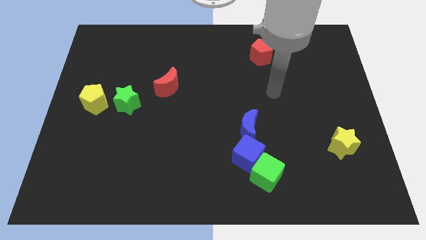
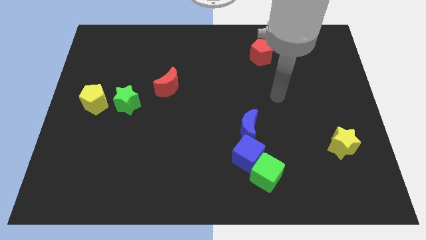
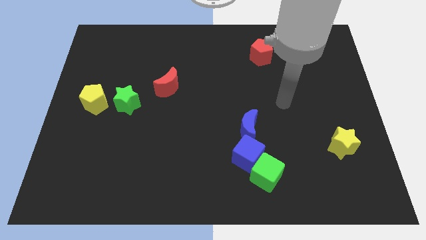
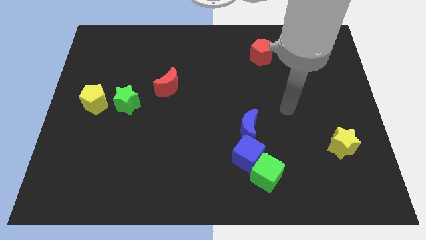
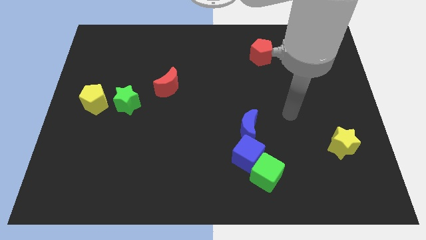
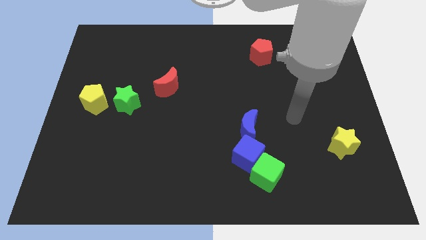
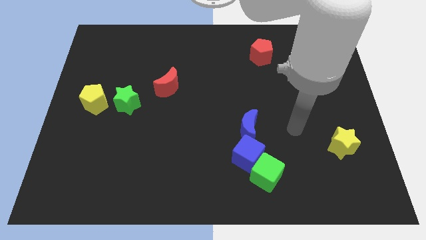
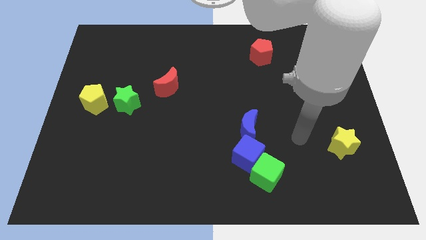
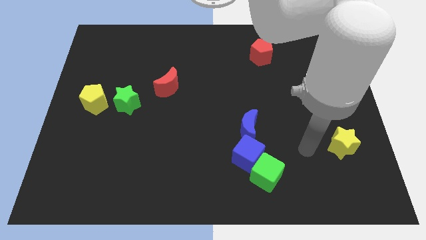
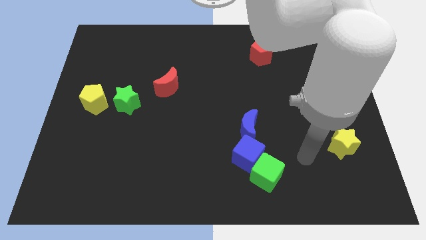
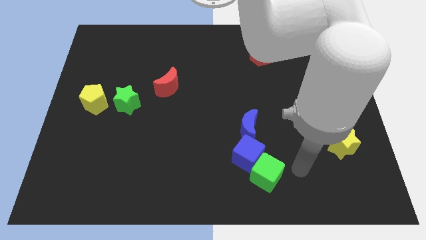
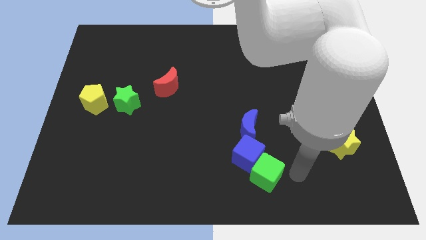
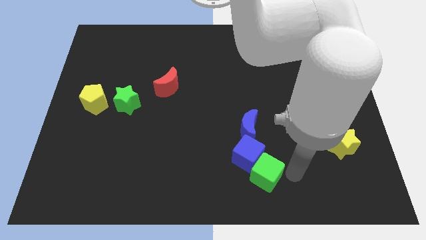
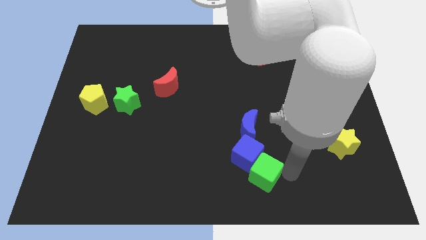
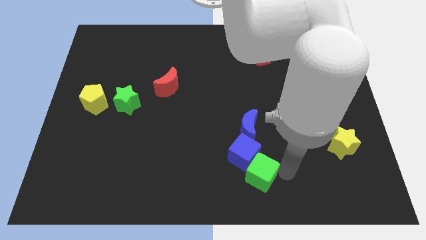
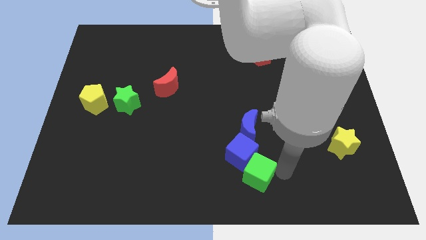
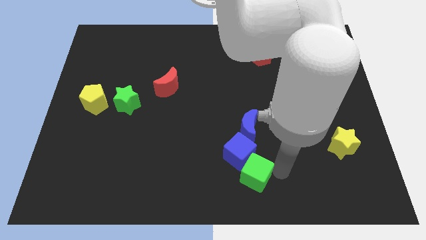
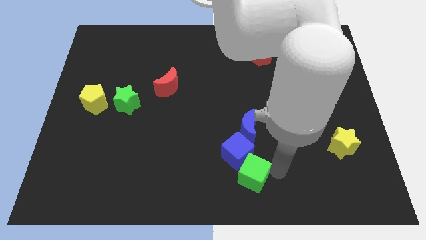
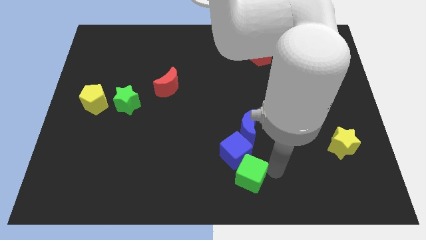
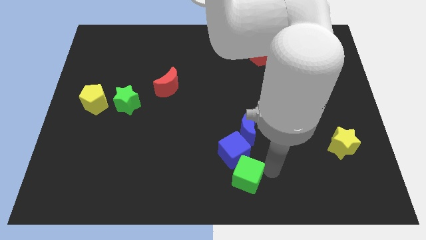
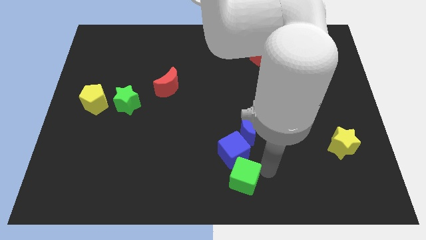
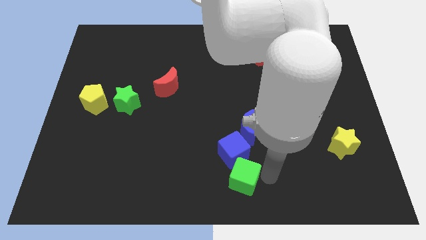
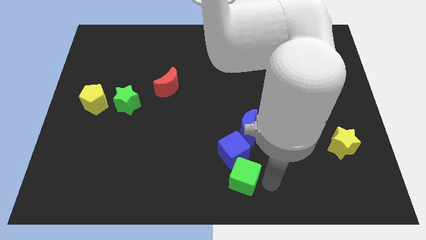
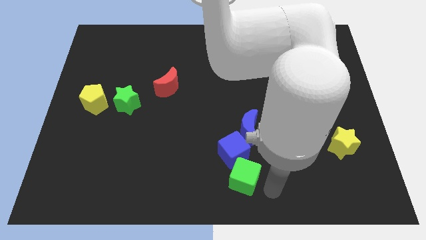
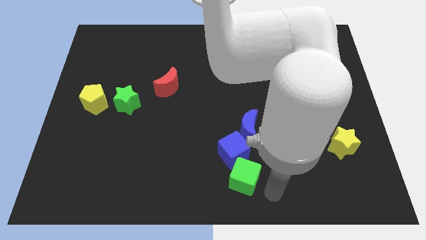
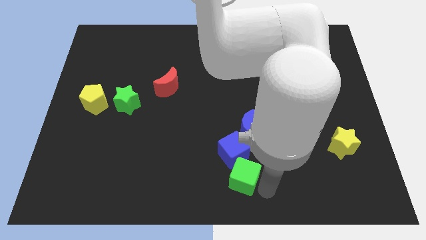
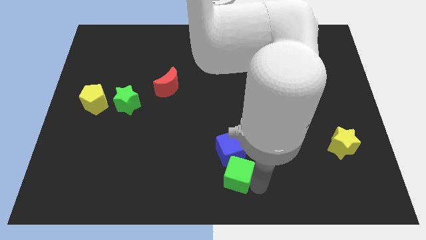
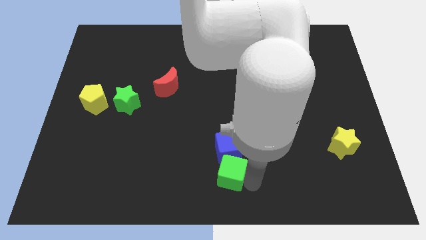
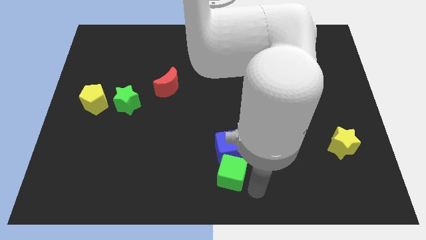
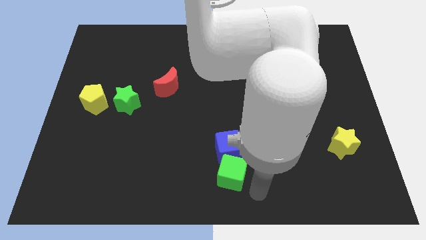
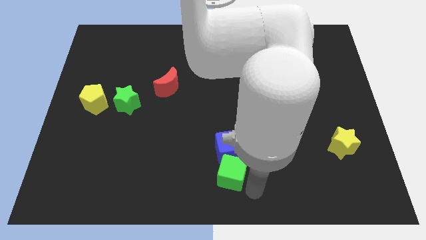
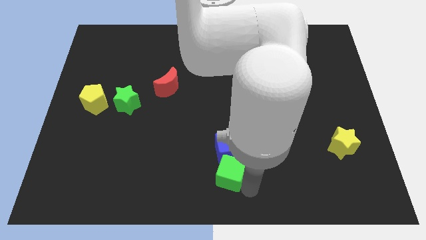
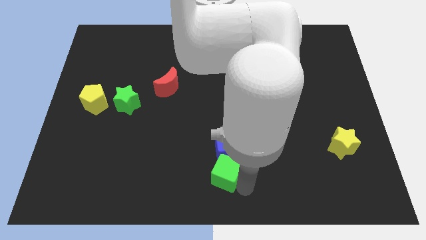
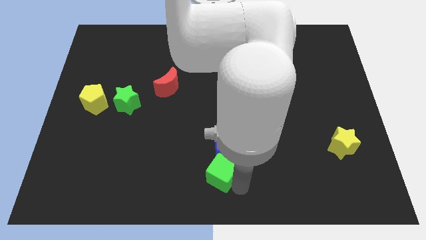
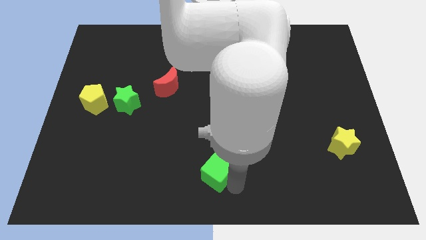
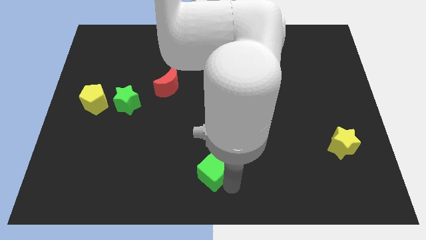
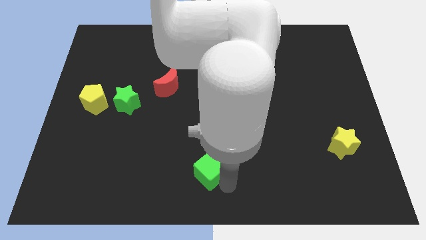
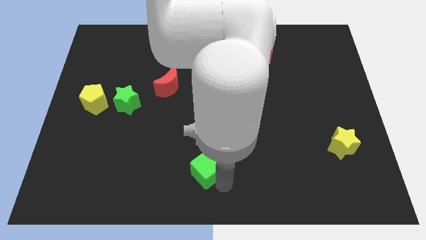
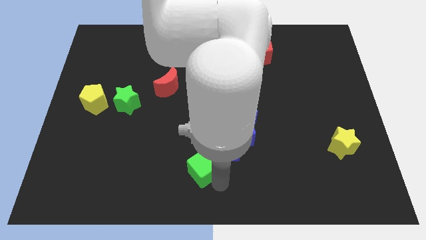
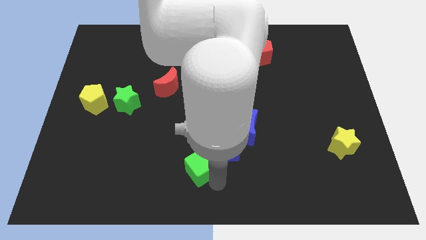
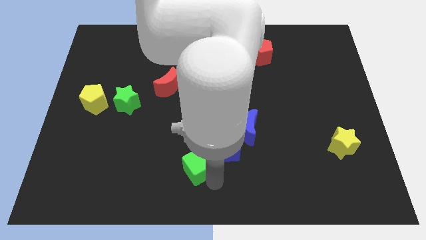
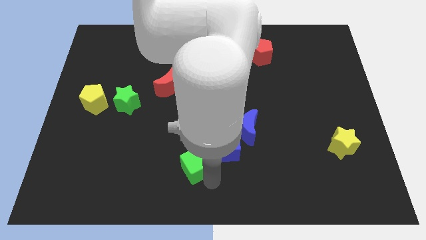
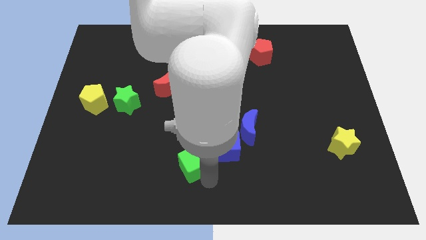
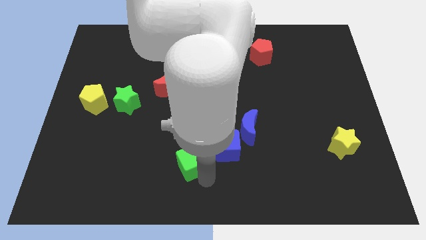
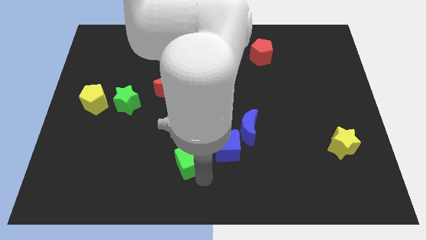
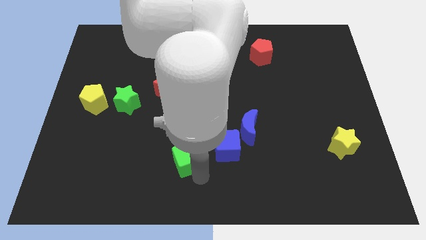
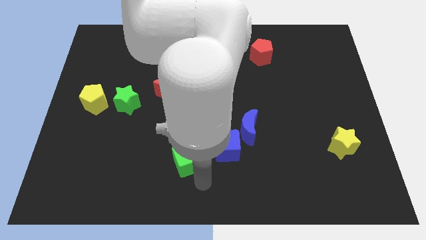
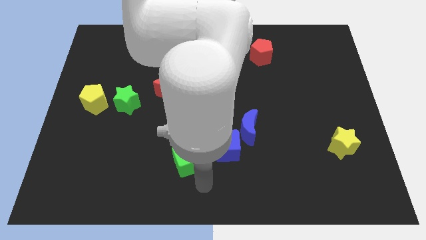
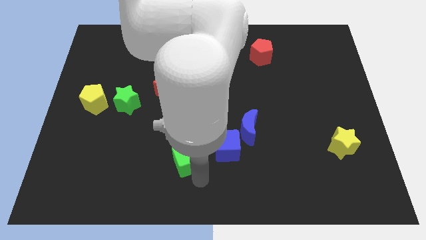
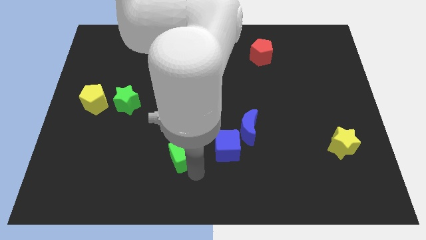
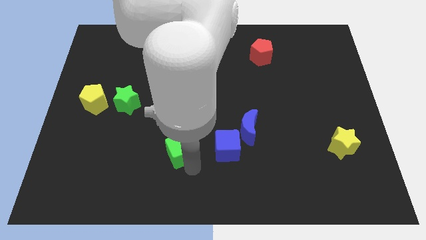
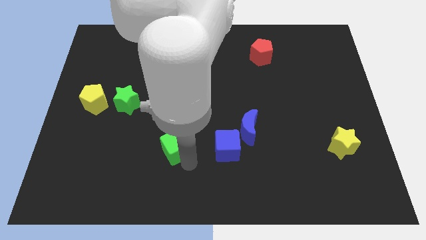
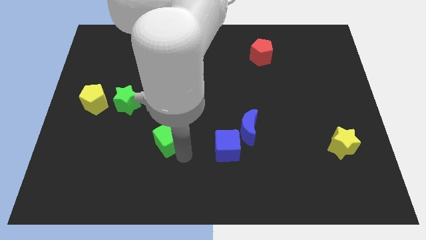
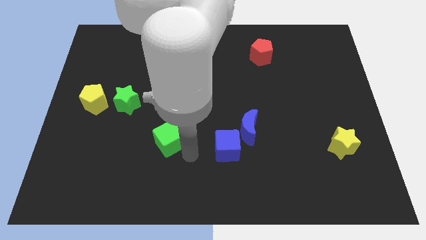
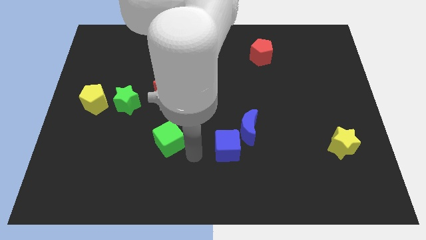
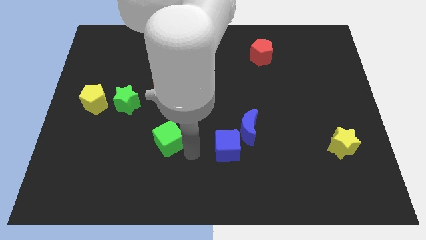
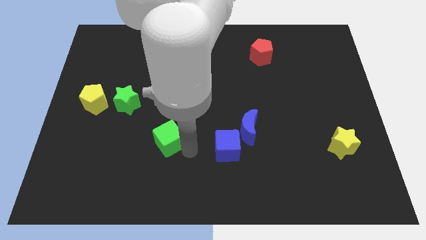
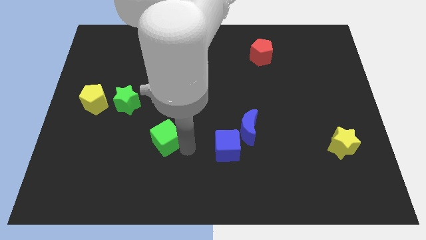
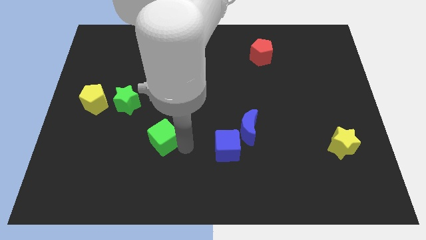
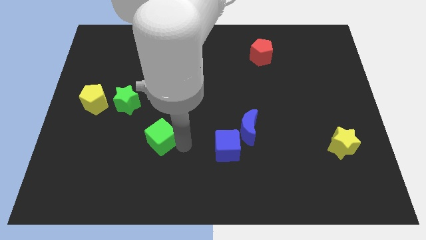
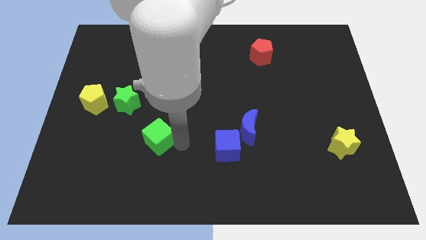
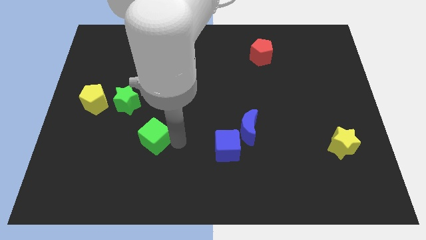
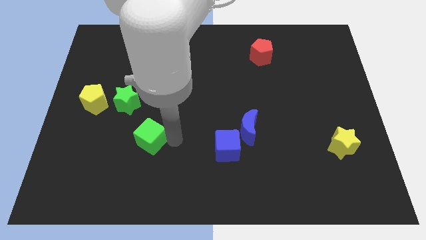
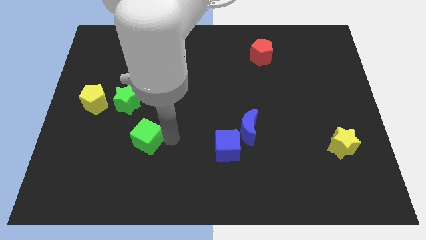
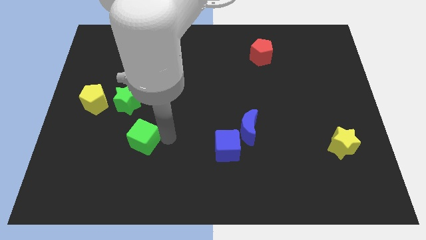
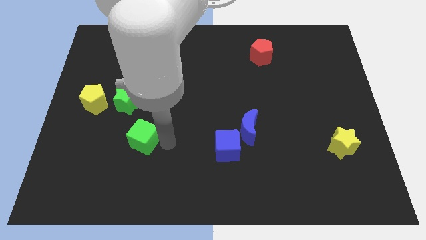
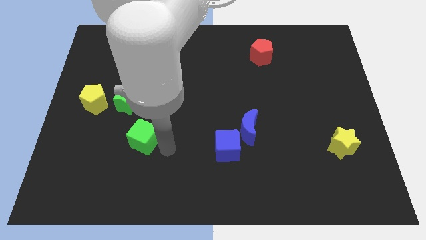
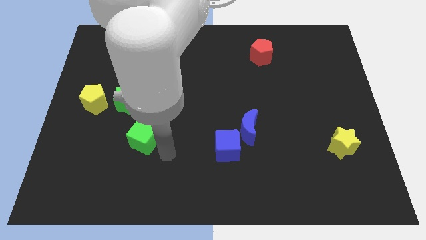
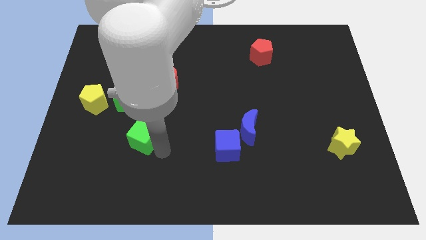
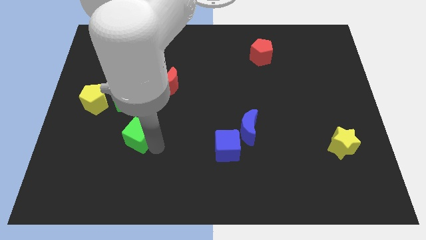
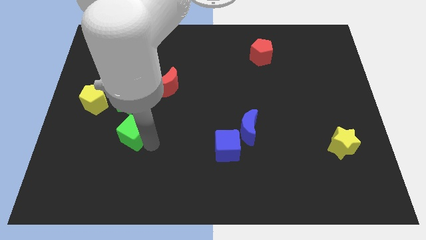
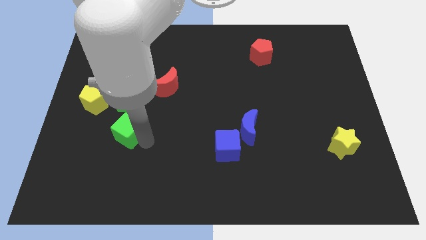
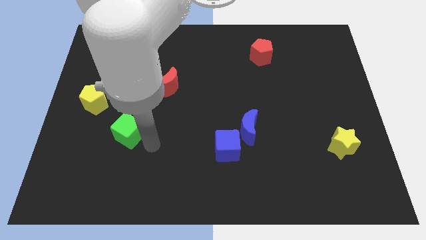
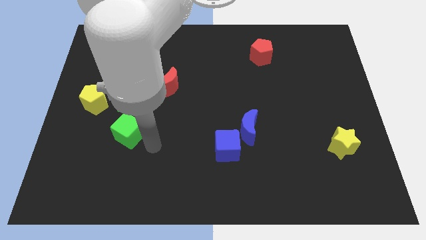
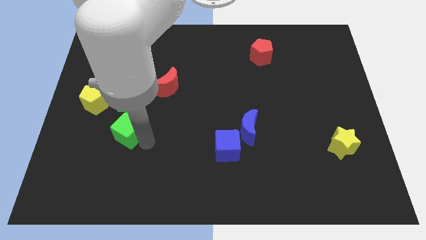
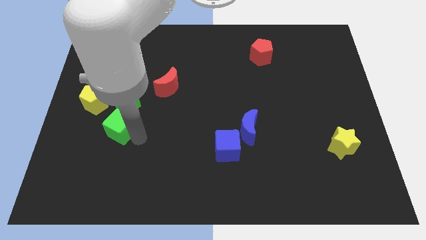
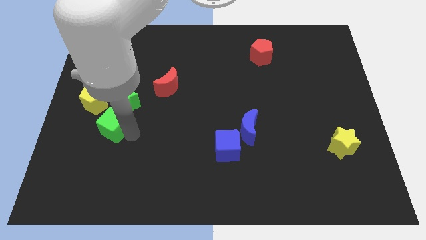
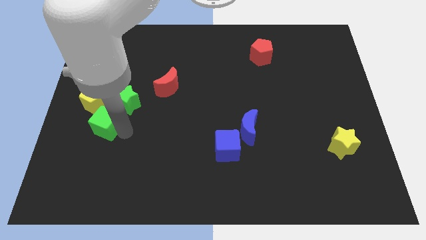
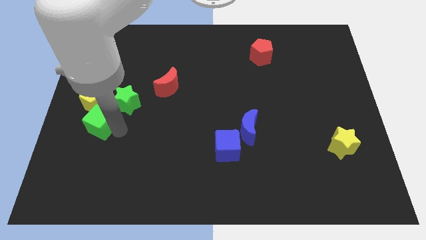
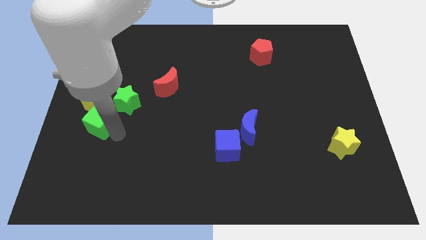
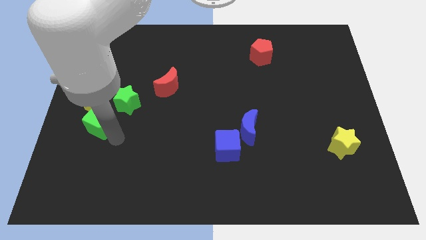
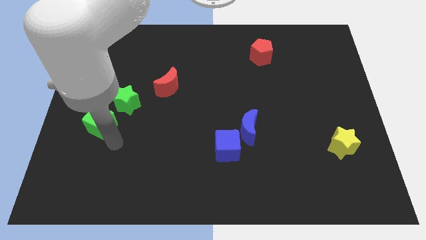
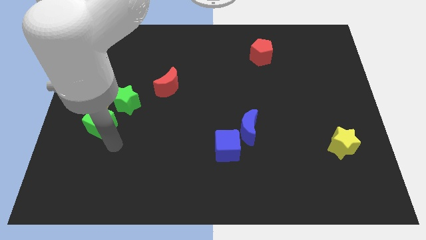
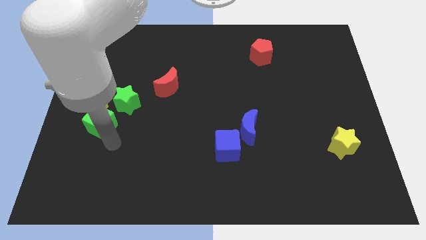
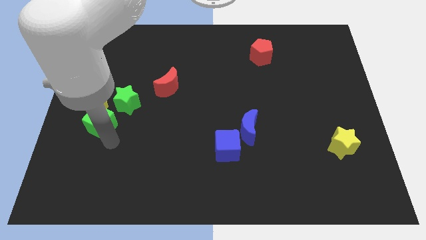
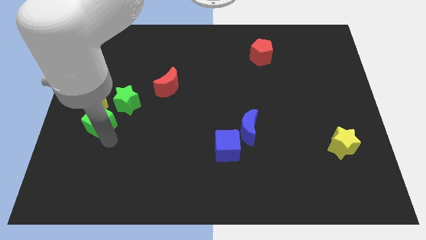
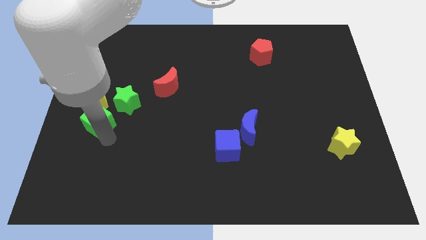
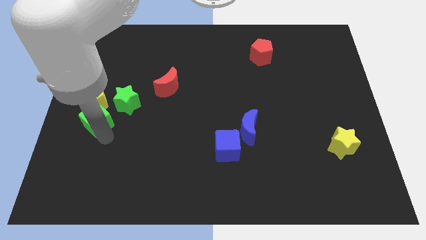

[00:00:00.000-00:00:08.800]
put the green cube to the left side
